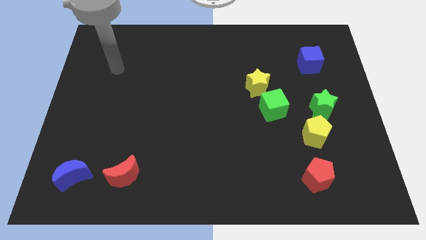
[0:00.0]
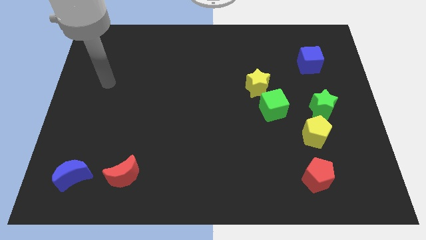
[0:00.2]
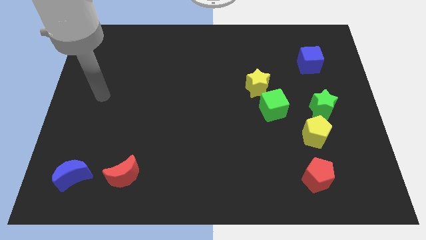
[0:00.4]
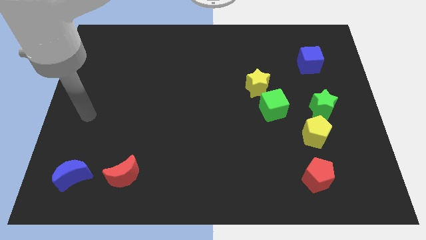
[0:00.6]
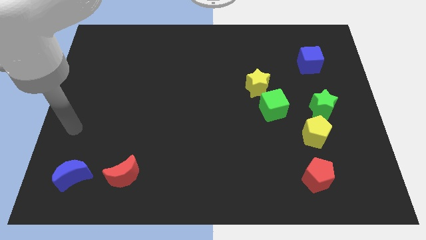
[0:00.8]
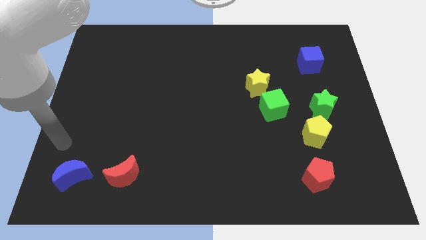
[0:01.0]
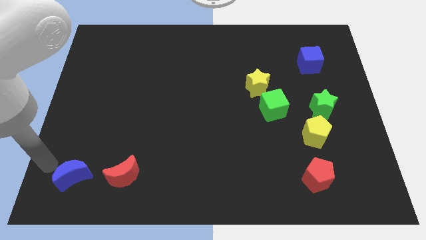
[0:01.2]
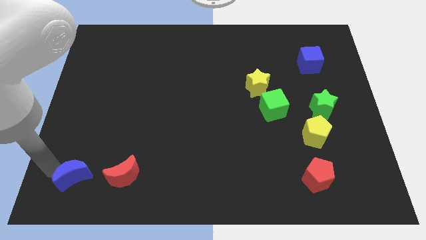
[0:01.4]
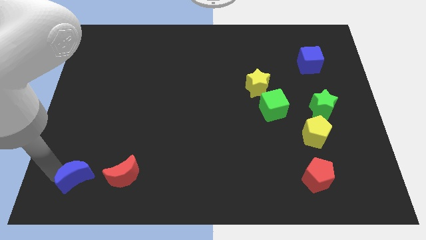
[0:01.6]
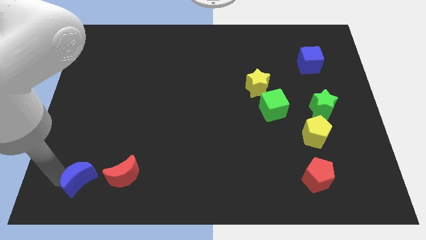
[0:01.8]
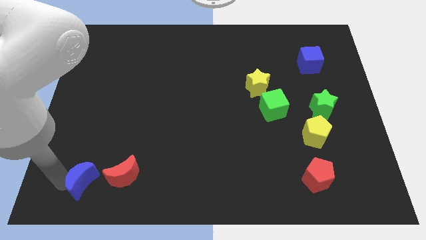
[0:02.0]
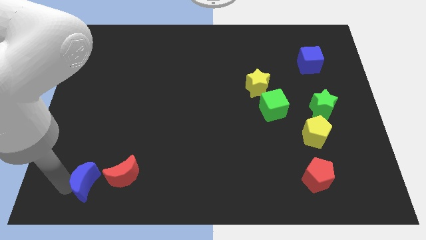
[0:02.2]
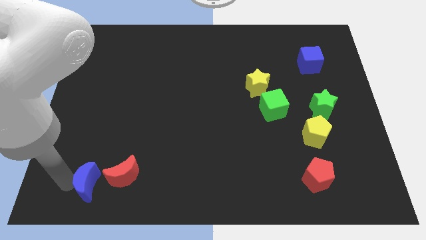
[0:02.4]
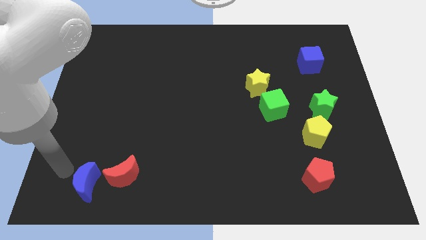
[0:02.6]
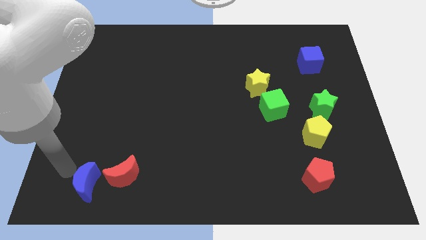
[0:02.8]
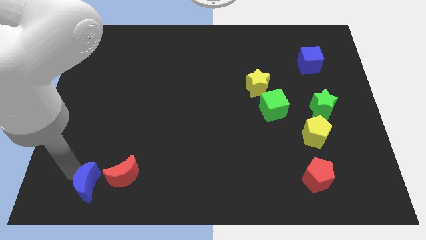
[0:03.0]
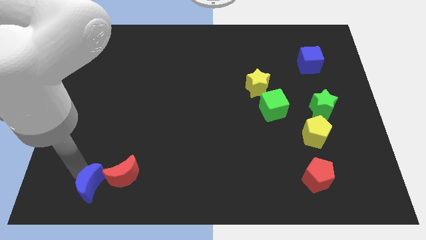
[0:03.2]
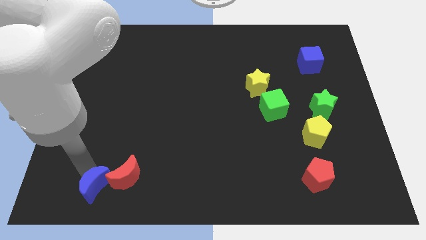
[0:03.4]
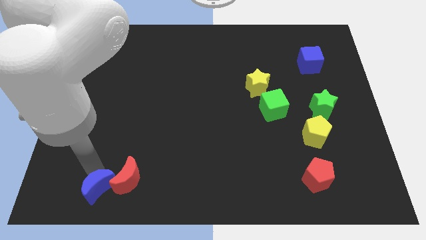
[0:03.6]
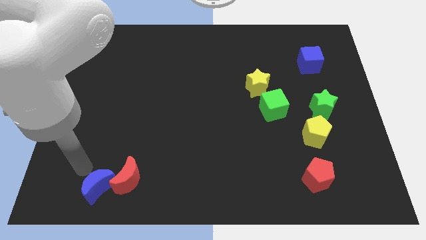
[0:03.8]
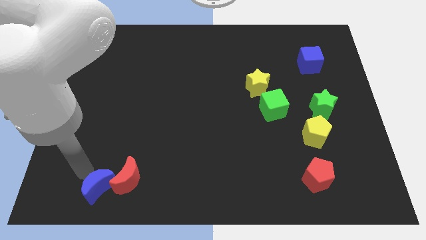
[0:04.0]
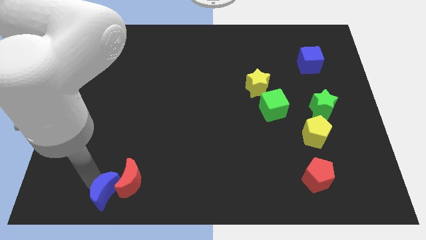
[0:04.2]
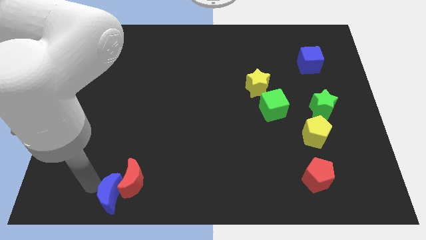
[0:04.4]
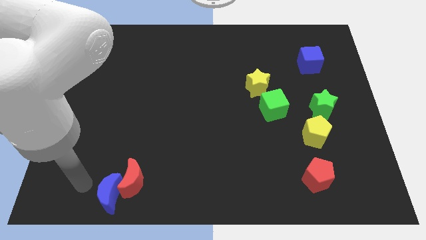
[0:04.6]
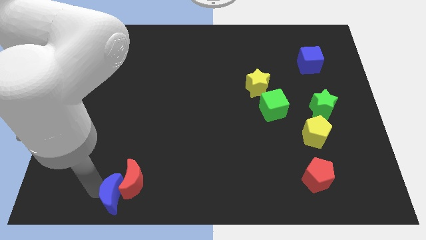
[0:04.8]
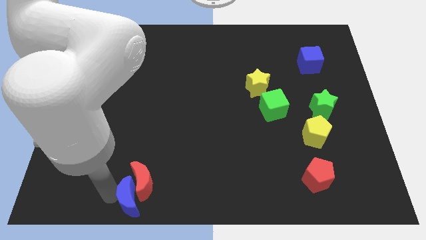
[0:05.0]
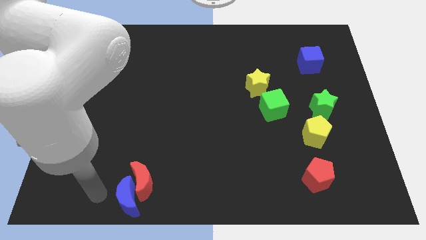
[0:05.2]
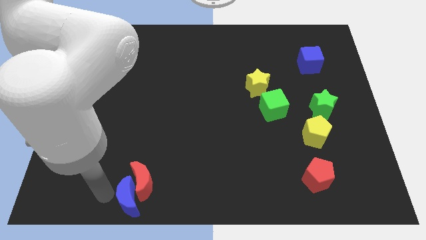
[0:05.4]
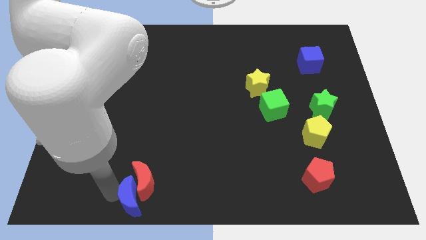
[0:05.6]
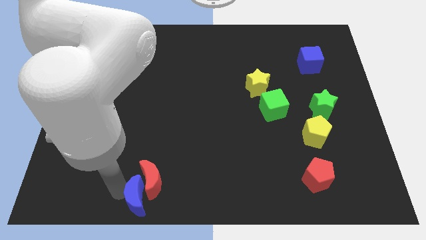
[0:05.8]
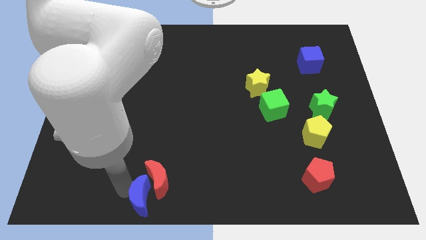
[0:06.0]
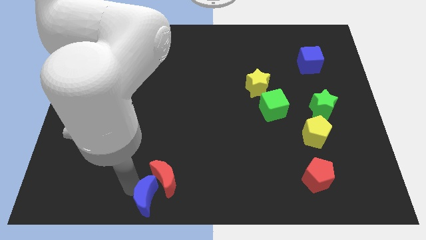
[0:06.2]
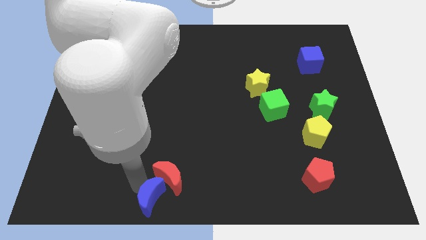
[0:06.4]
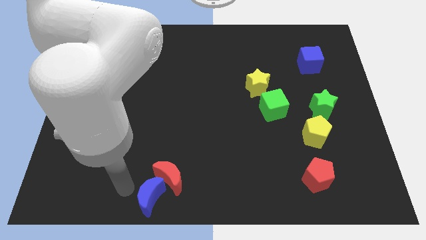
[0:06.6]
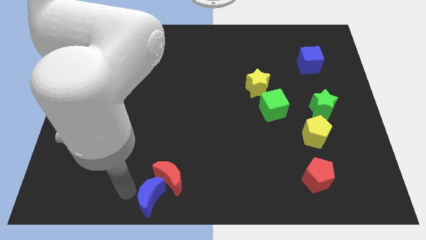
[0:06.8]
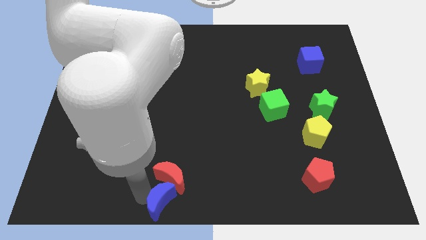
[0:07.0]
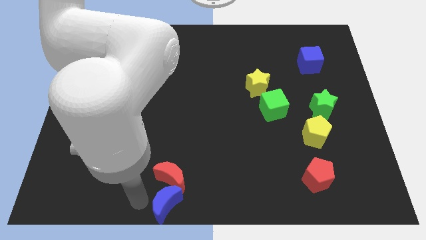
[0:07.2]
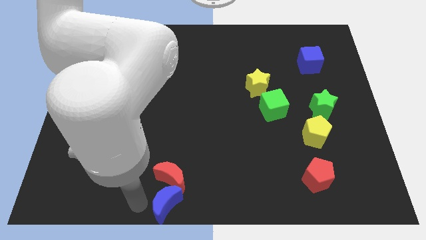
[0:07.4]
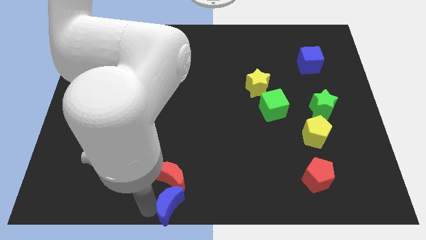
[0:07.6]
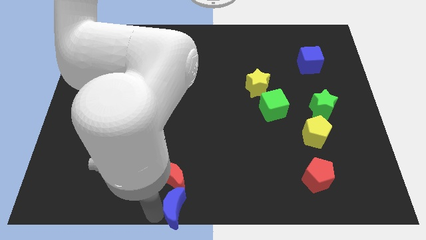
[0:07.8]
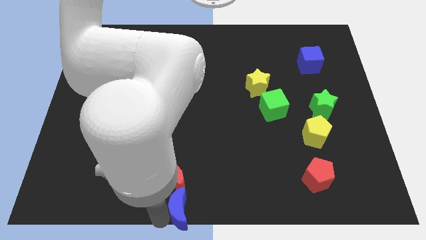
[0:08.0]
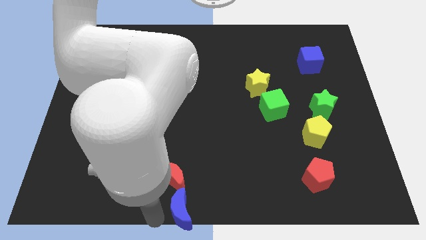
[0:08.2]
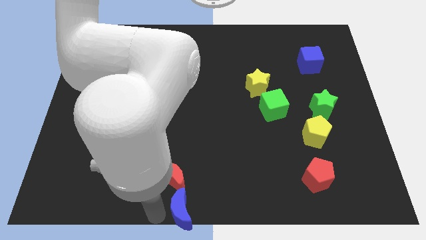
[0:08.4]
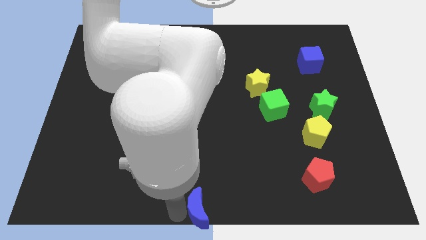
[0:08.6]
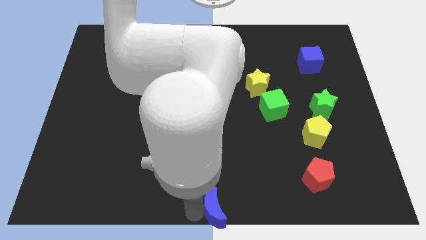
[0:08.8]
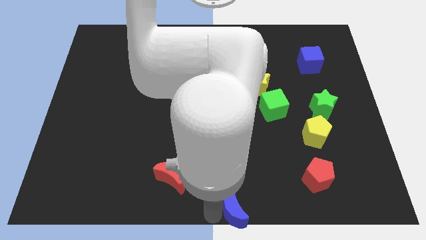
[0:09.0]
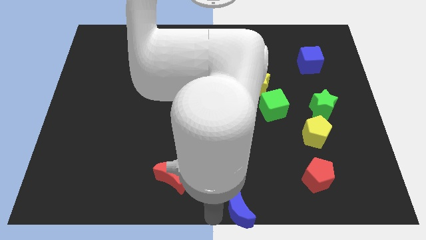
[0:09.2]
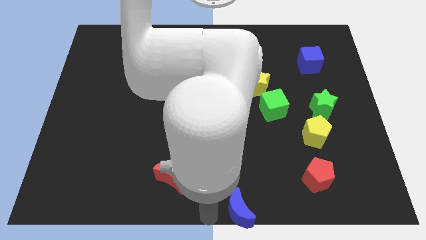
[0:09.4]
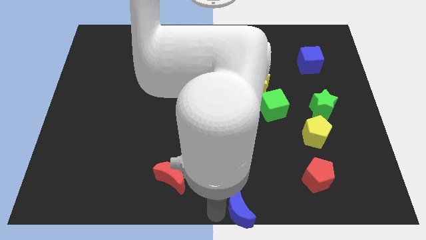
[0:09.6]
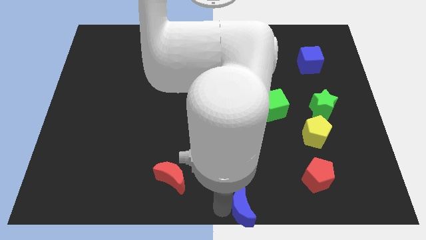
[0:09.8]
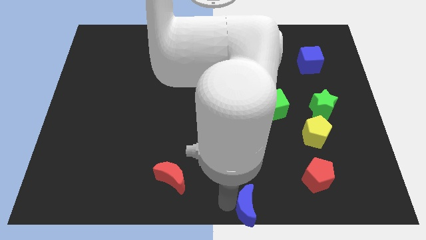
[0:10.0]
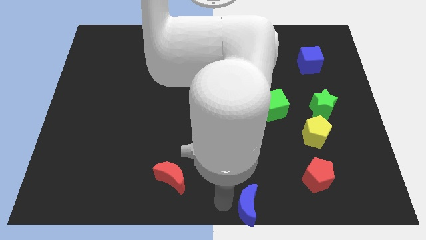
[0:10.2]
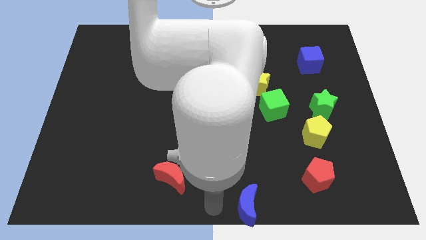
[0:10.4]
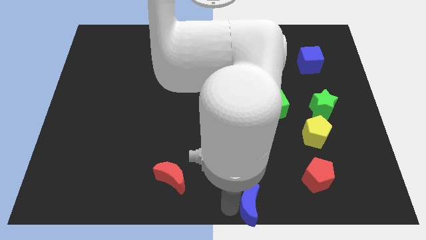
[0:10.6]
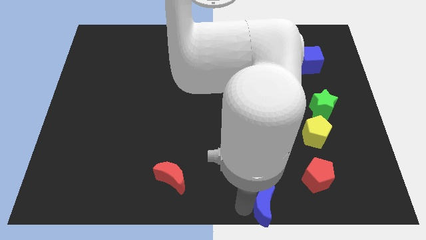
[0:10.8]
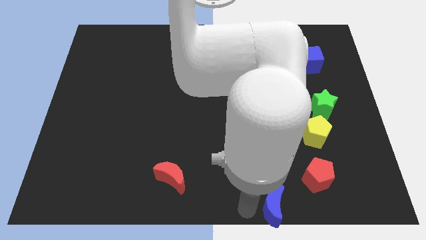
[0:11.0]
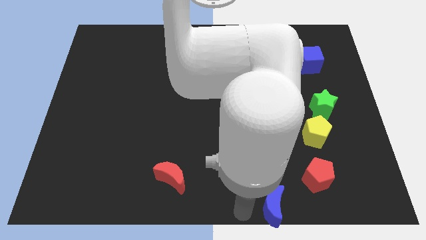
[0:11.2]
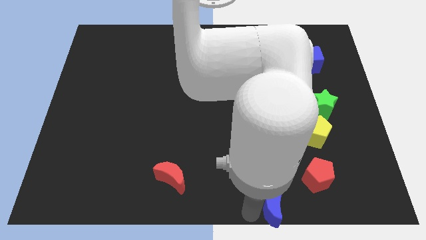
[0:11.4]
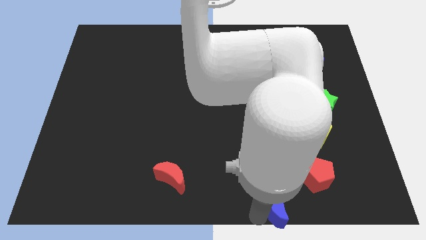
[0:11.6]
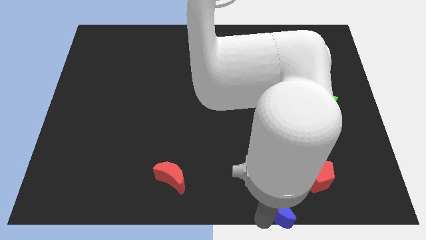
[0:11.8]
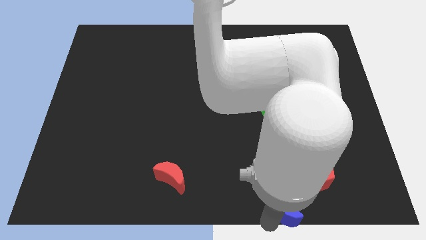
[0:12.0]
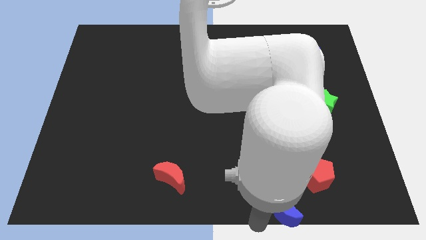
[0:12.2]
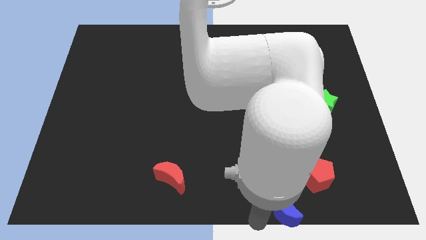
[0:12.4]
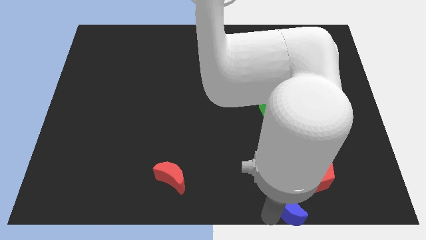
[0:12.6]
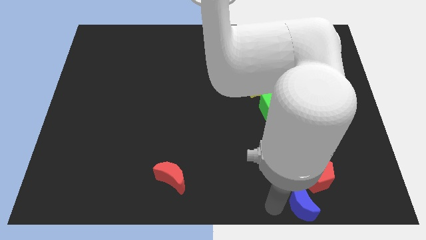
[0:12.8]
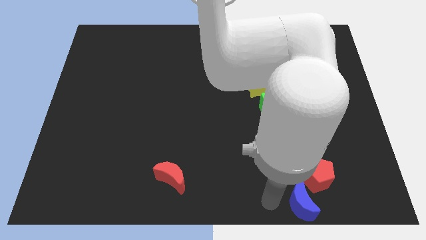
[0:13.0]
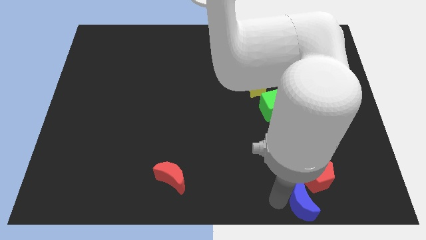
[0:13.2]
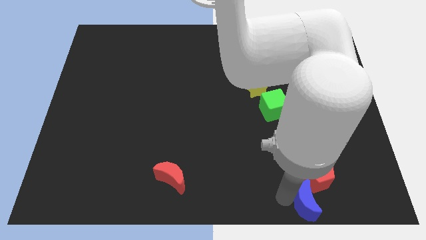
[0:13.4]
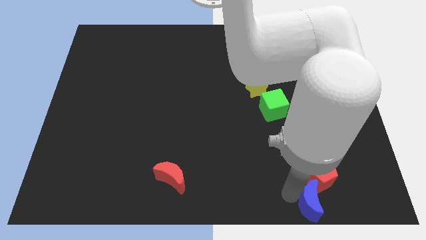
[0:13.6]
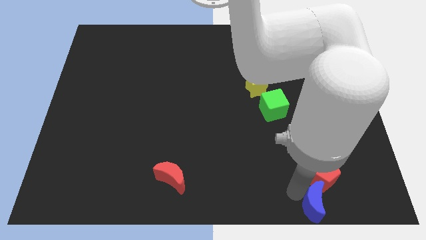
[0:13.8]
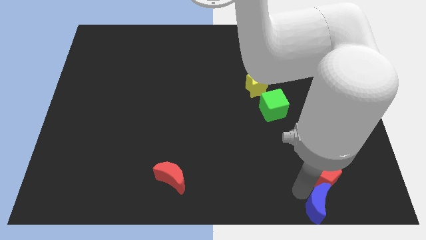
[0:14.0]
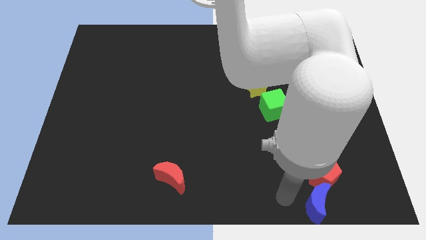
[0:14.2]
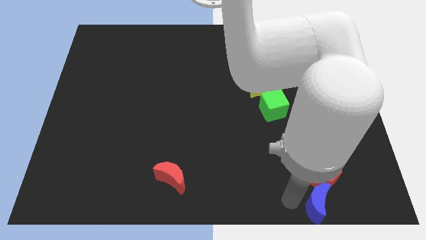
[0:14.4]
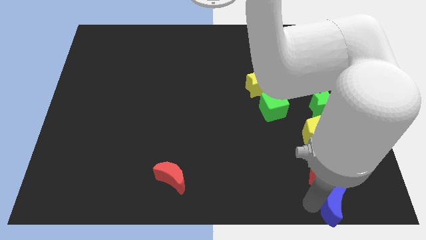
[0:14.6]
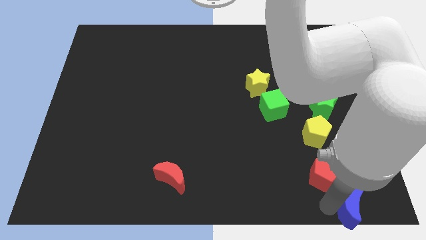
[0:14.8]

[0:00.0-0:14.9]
move the blue moon to the bottom right
